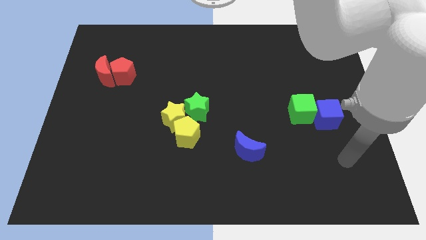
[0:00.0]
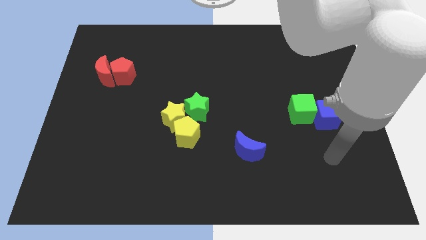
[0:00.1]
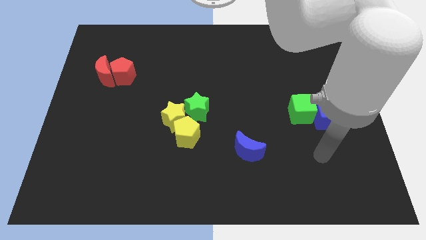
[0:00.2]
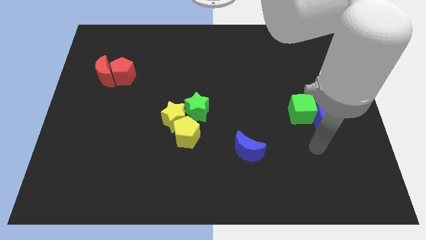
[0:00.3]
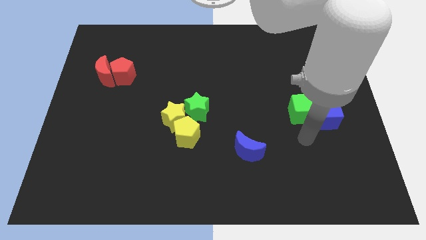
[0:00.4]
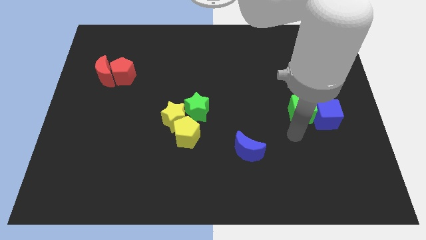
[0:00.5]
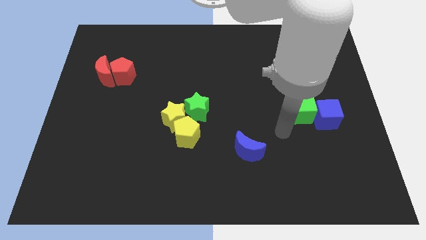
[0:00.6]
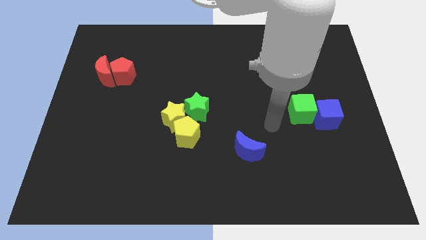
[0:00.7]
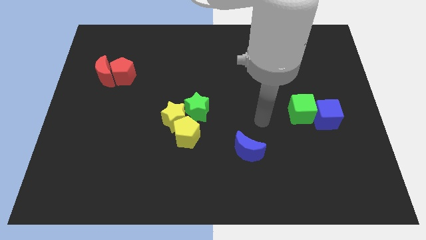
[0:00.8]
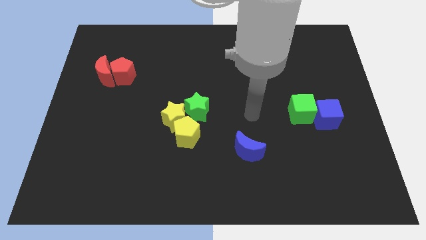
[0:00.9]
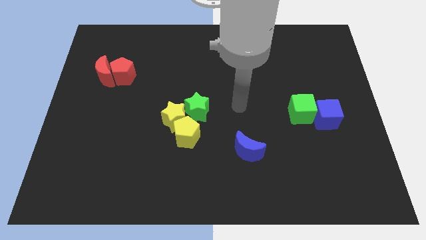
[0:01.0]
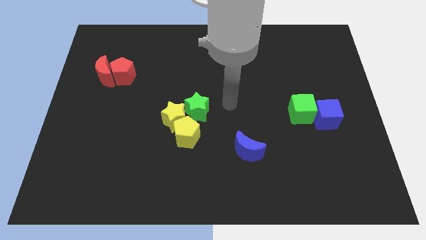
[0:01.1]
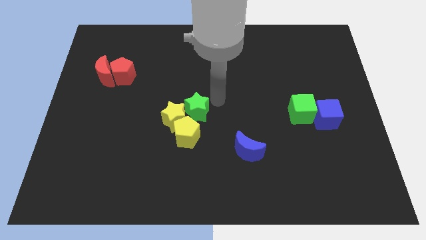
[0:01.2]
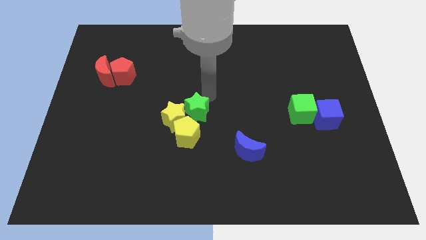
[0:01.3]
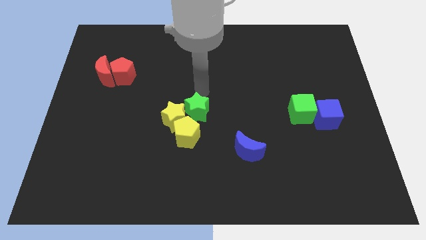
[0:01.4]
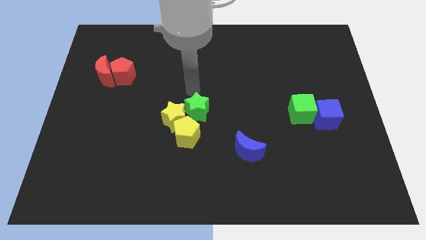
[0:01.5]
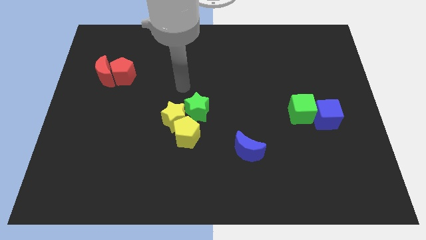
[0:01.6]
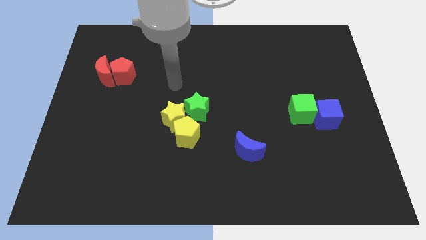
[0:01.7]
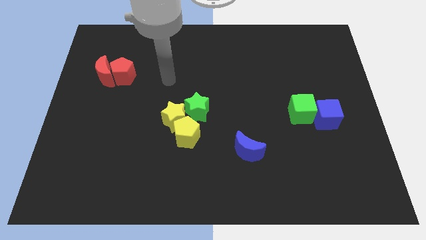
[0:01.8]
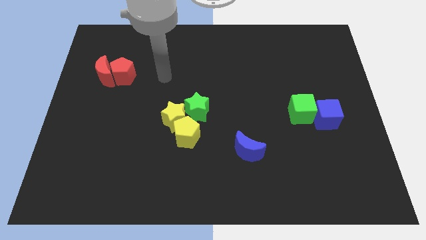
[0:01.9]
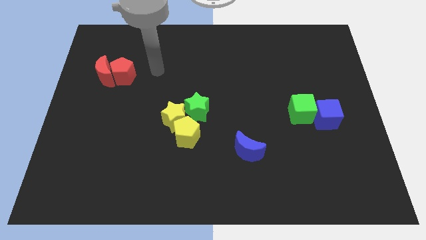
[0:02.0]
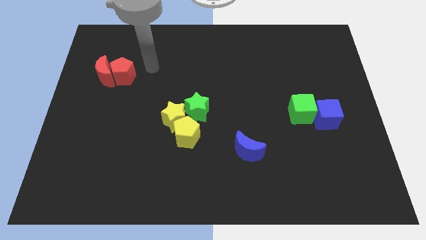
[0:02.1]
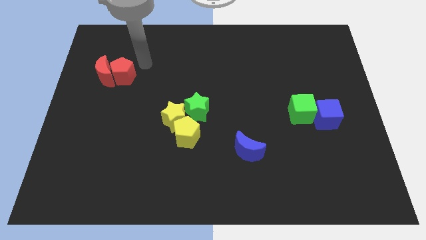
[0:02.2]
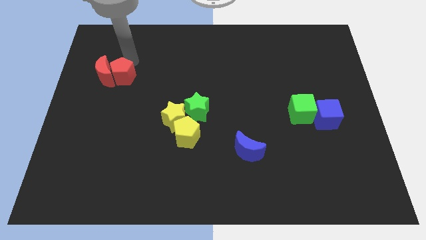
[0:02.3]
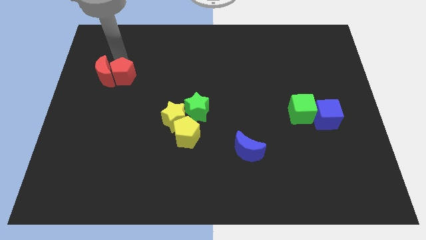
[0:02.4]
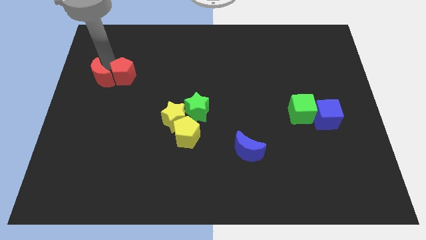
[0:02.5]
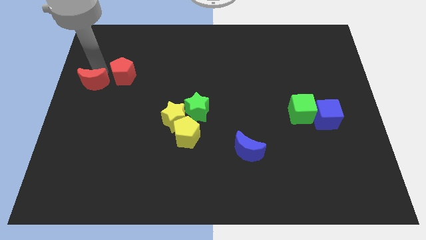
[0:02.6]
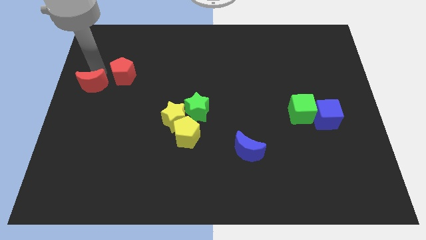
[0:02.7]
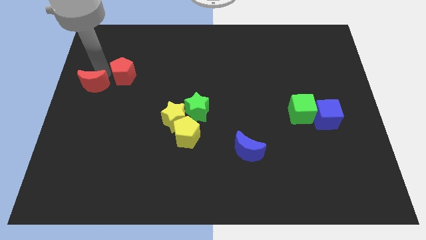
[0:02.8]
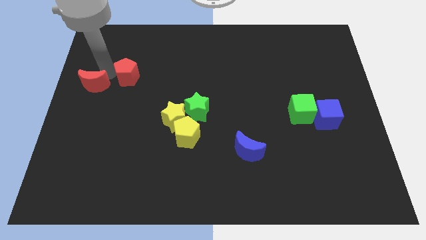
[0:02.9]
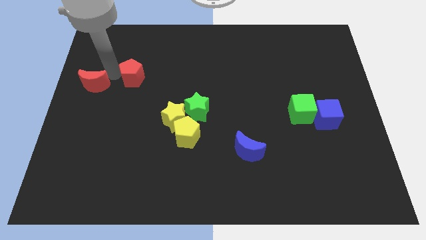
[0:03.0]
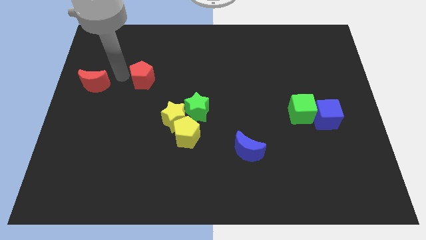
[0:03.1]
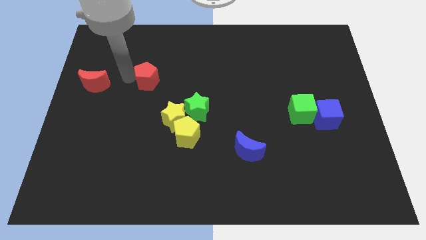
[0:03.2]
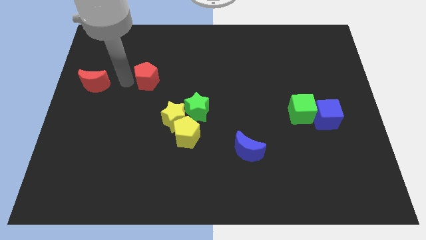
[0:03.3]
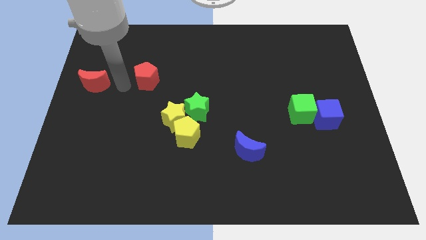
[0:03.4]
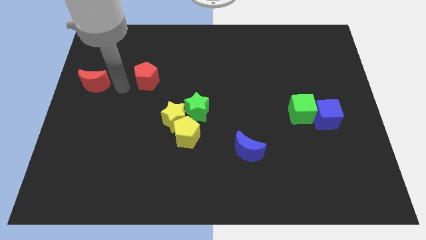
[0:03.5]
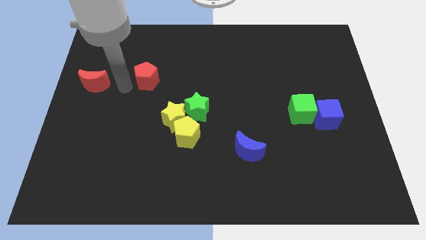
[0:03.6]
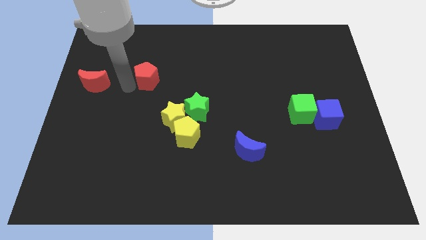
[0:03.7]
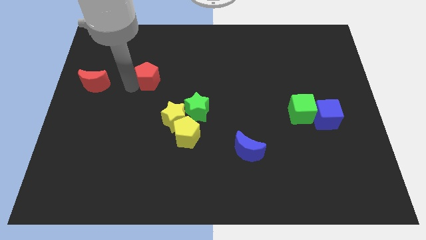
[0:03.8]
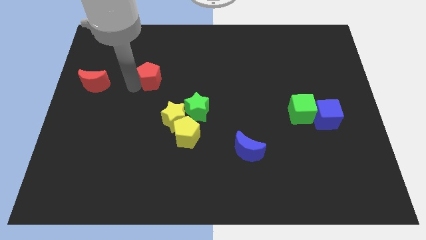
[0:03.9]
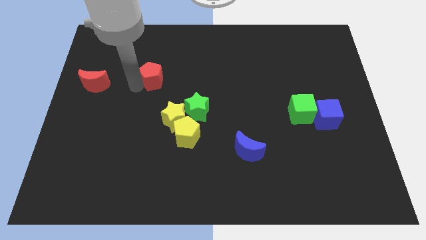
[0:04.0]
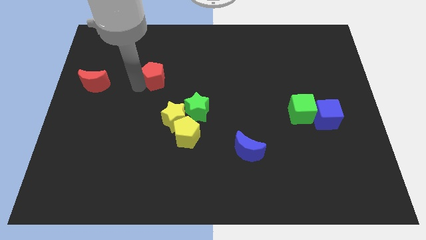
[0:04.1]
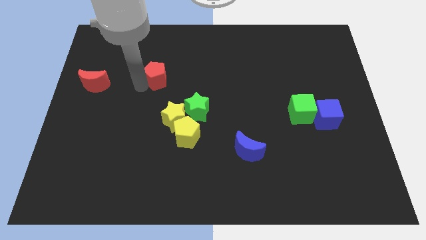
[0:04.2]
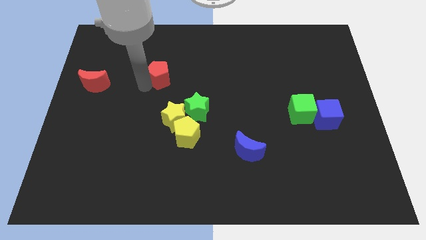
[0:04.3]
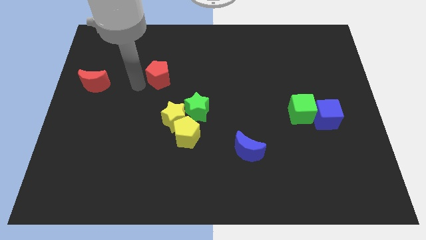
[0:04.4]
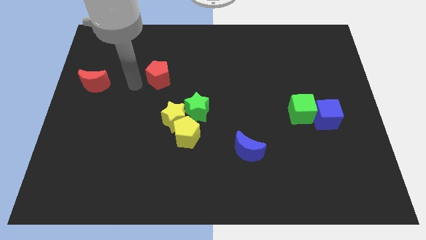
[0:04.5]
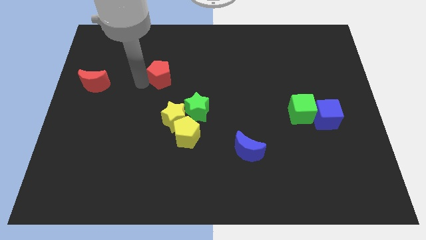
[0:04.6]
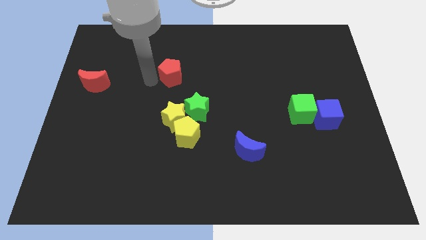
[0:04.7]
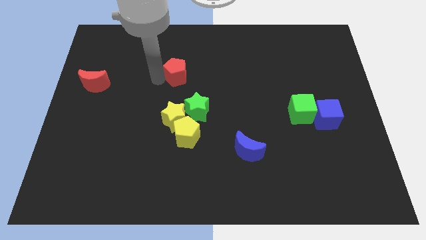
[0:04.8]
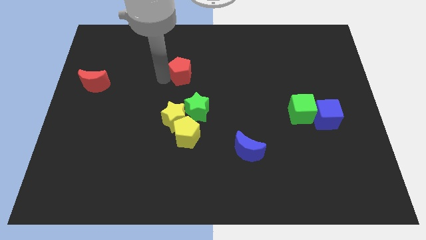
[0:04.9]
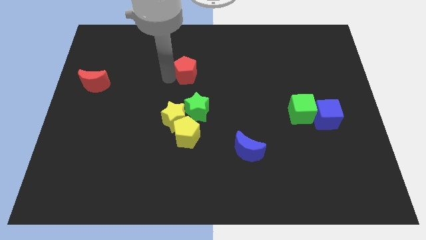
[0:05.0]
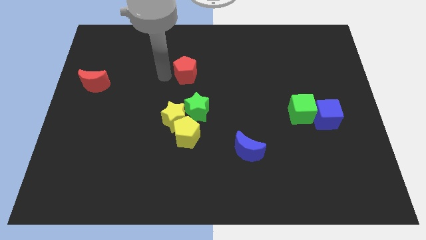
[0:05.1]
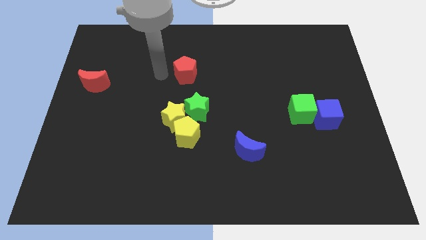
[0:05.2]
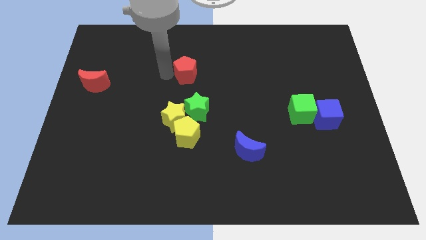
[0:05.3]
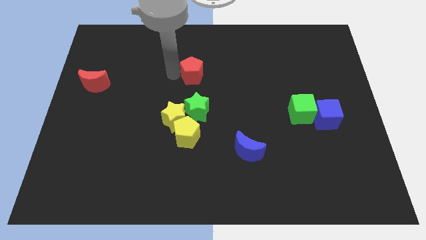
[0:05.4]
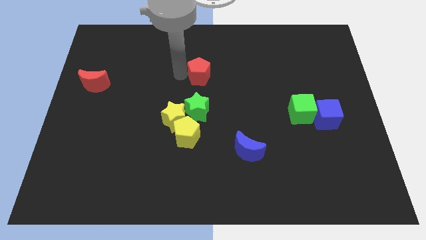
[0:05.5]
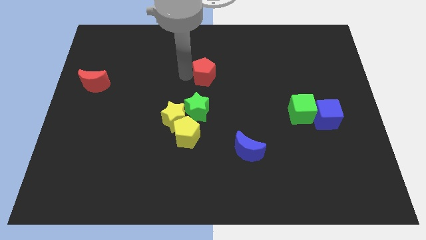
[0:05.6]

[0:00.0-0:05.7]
slide the red pentagon right

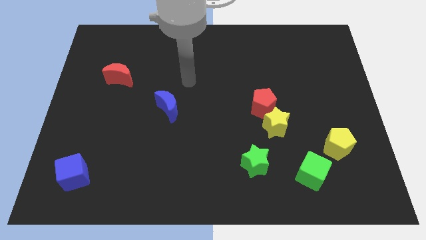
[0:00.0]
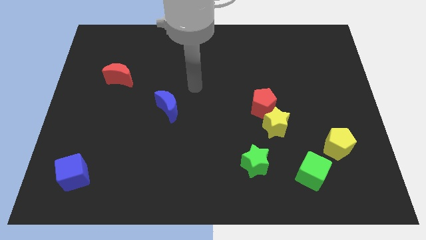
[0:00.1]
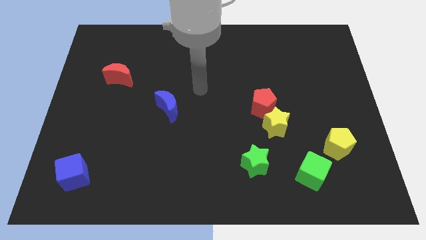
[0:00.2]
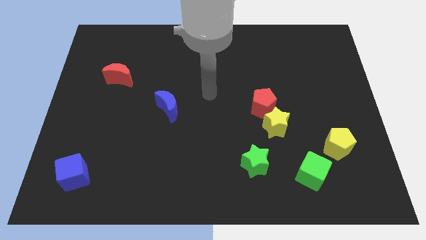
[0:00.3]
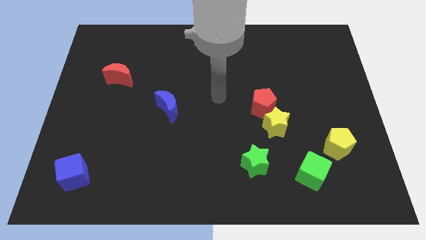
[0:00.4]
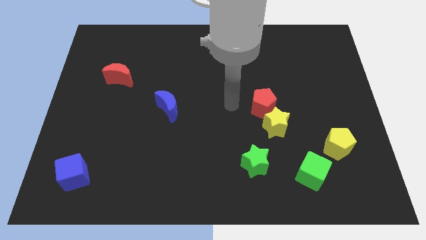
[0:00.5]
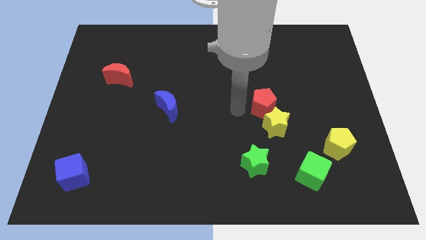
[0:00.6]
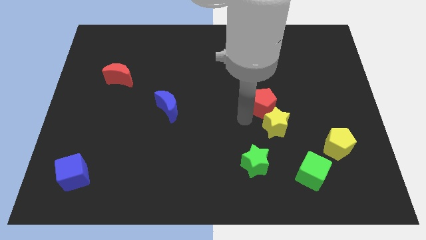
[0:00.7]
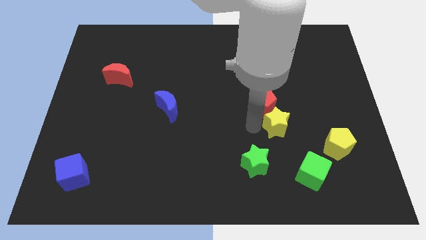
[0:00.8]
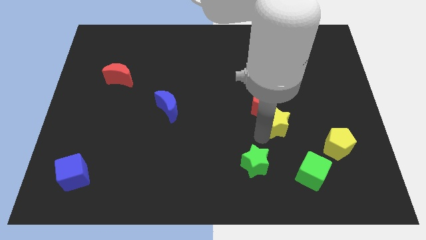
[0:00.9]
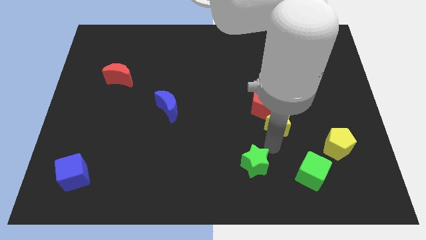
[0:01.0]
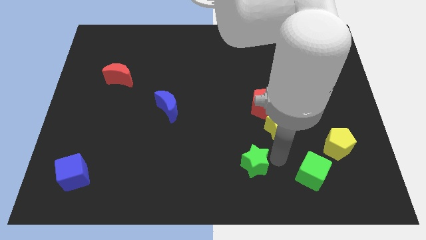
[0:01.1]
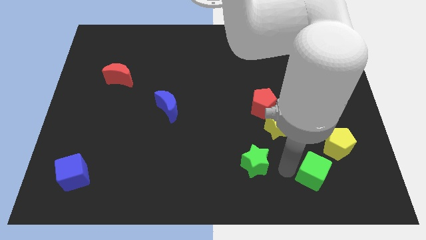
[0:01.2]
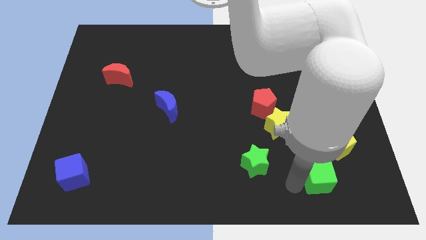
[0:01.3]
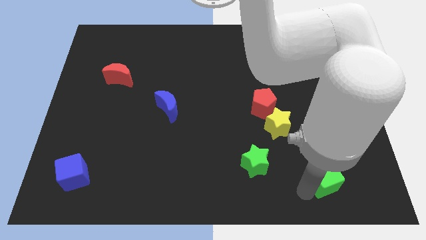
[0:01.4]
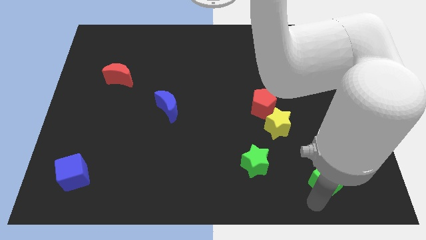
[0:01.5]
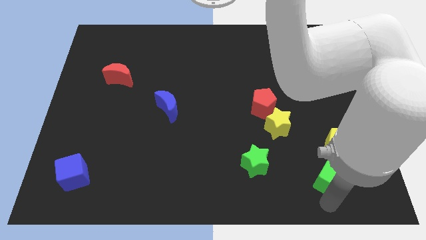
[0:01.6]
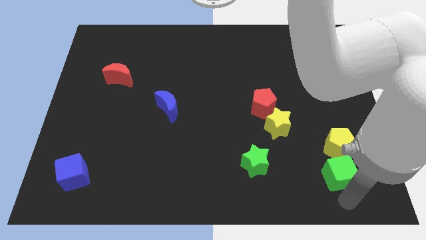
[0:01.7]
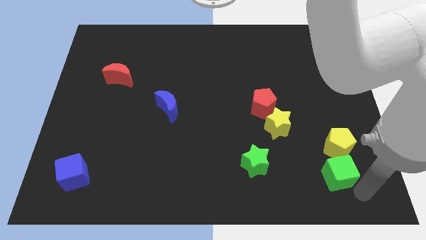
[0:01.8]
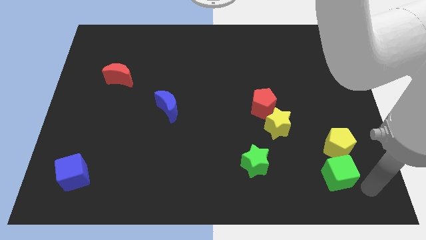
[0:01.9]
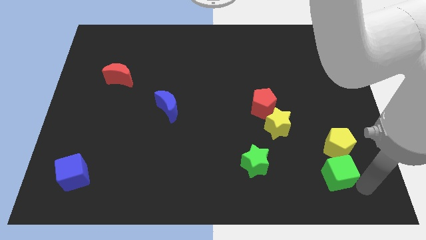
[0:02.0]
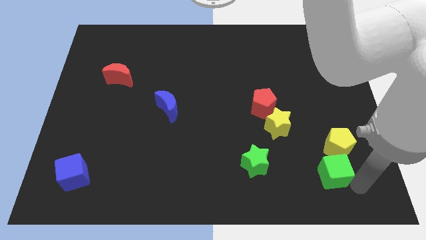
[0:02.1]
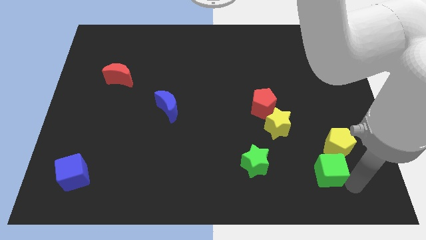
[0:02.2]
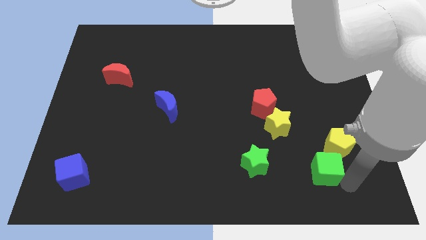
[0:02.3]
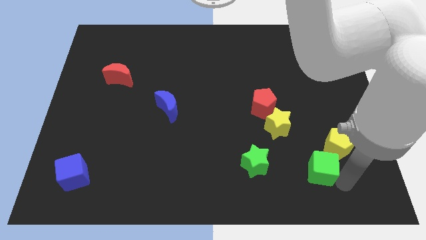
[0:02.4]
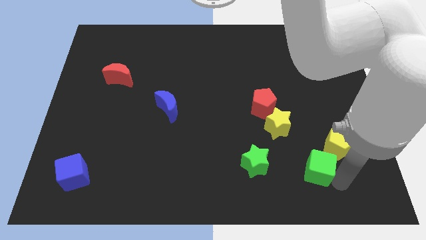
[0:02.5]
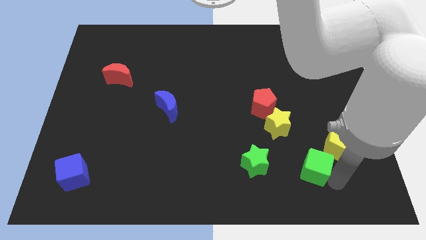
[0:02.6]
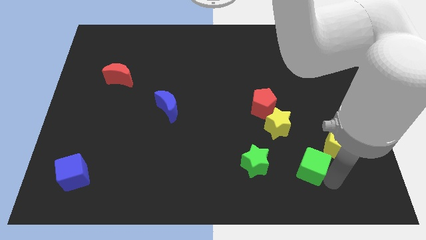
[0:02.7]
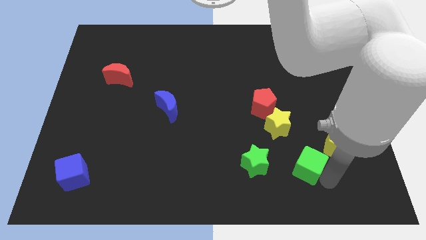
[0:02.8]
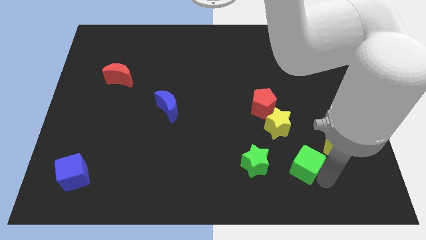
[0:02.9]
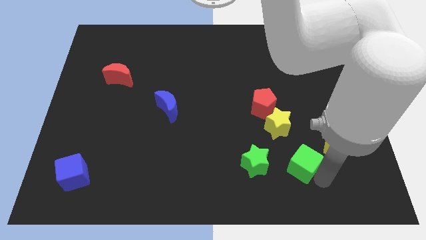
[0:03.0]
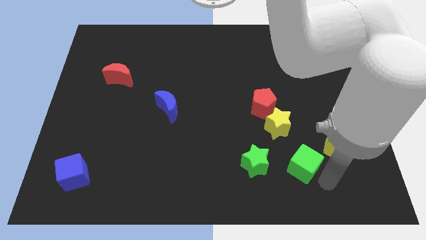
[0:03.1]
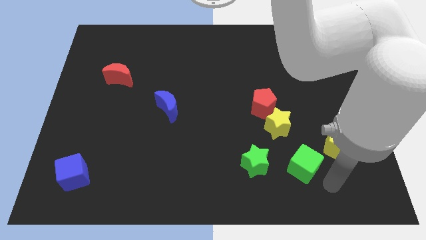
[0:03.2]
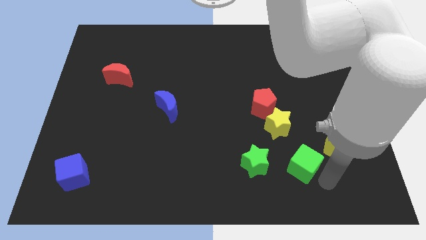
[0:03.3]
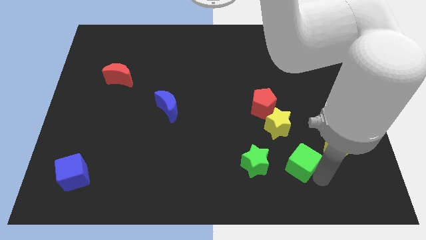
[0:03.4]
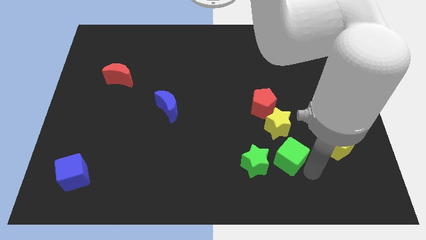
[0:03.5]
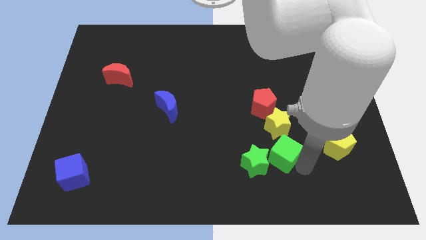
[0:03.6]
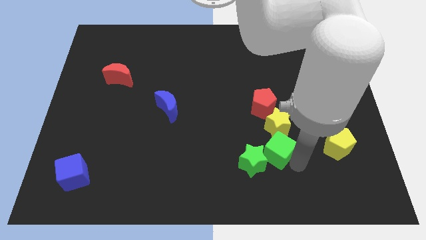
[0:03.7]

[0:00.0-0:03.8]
slide the green cube up and to the left a little
